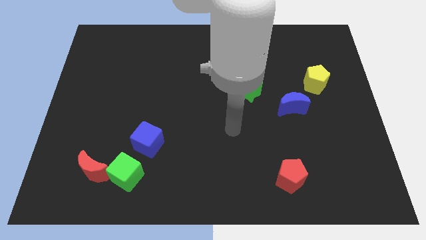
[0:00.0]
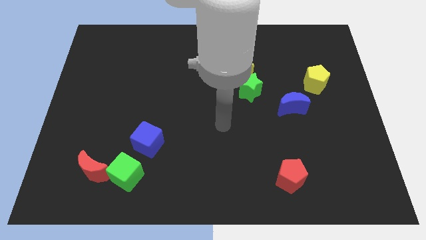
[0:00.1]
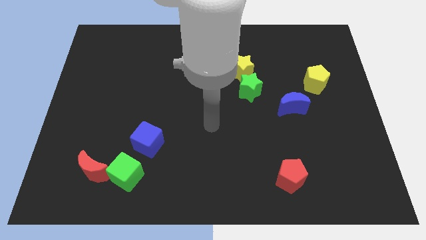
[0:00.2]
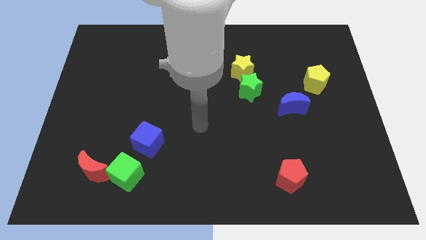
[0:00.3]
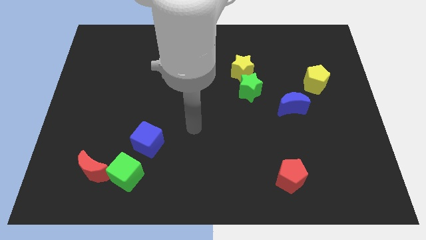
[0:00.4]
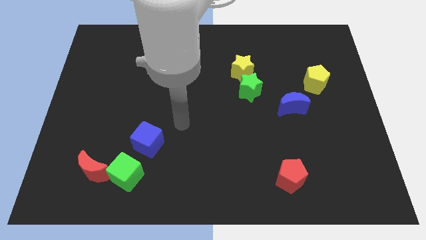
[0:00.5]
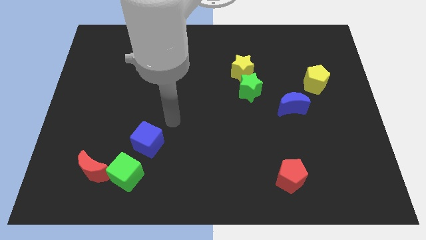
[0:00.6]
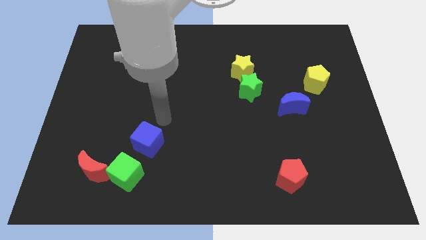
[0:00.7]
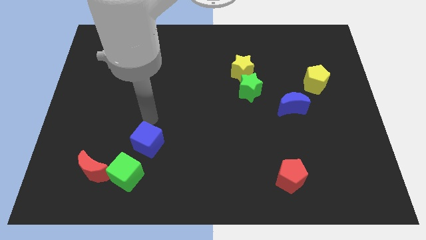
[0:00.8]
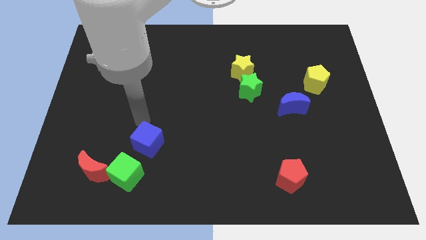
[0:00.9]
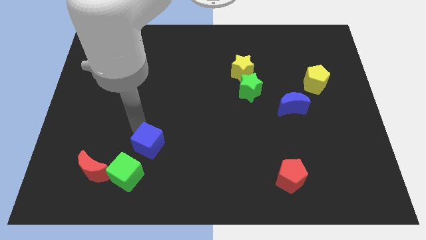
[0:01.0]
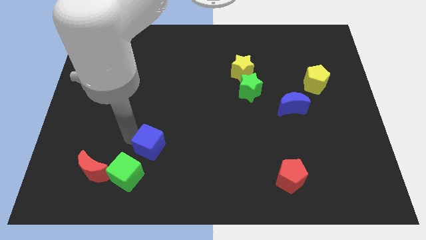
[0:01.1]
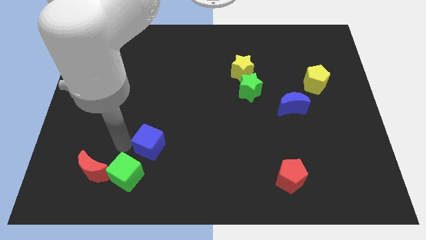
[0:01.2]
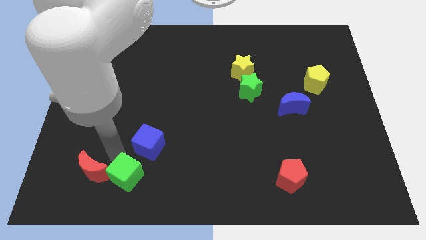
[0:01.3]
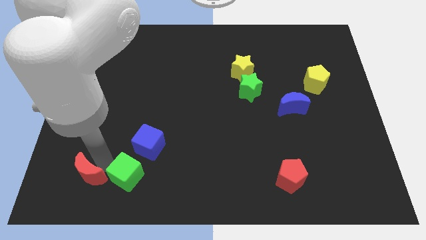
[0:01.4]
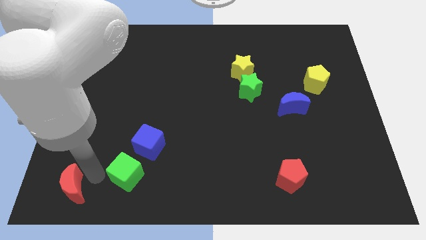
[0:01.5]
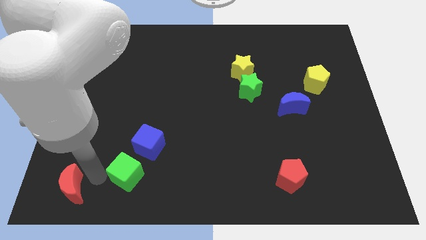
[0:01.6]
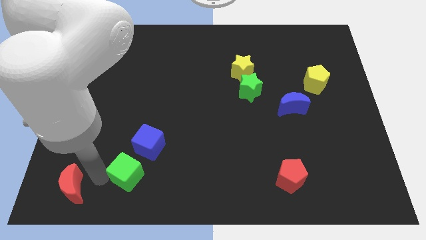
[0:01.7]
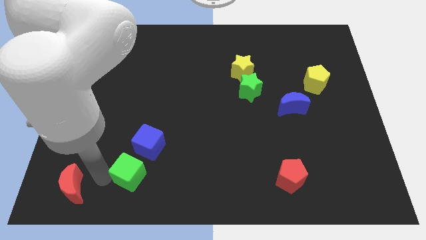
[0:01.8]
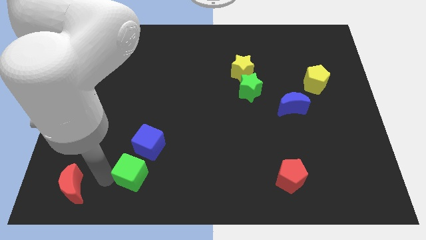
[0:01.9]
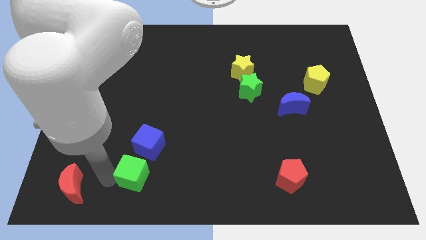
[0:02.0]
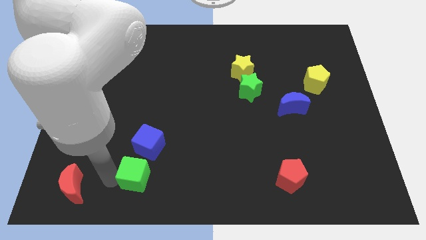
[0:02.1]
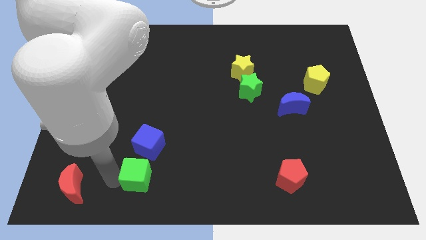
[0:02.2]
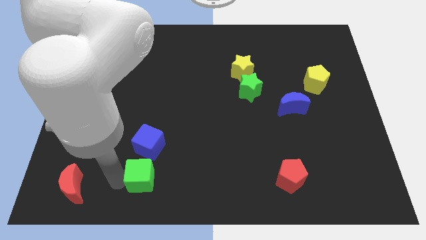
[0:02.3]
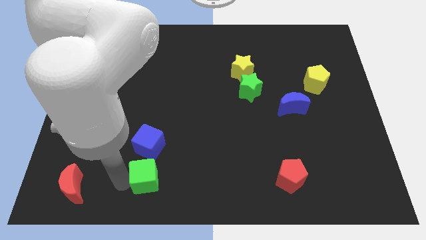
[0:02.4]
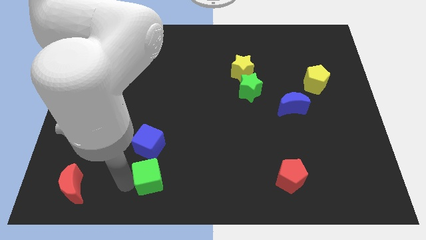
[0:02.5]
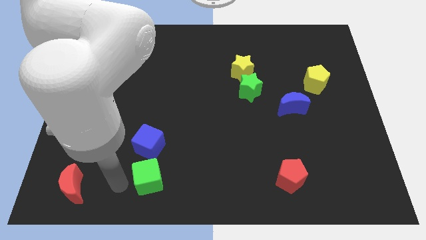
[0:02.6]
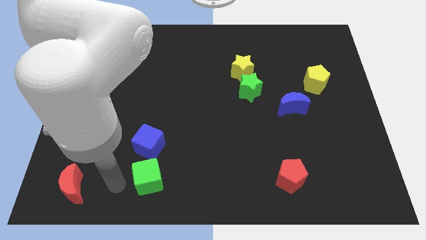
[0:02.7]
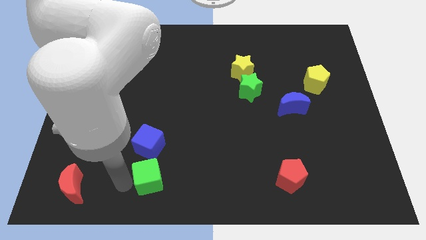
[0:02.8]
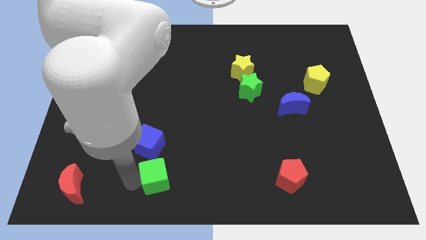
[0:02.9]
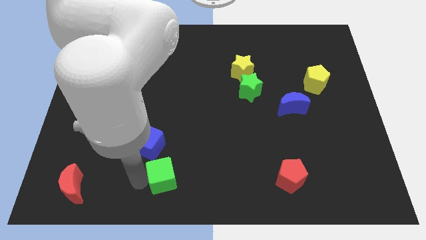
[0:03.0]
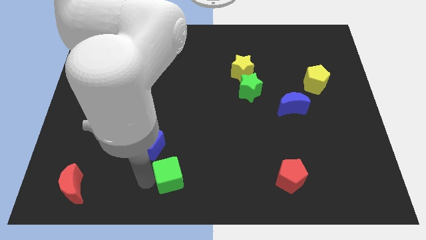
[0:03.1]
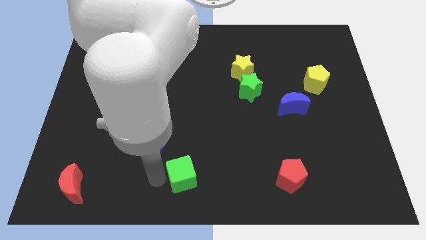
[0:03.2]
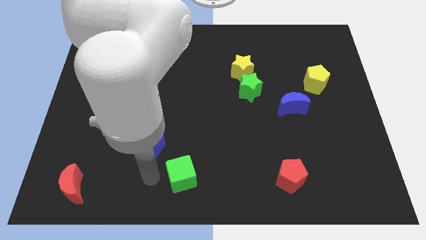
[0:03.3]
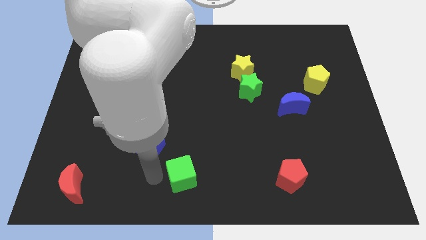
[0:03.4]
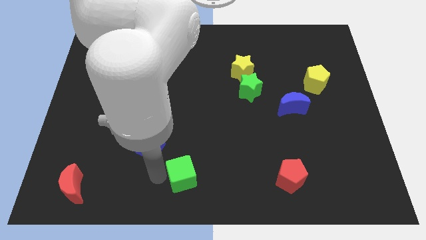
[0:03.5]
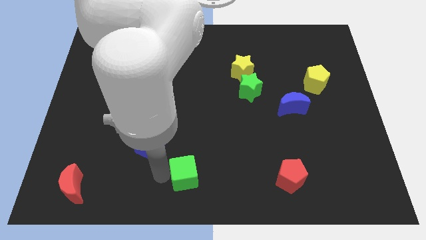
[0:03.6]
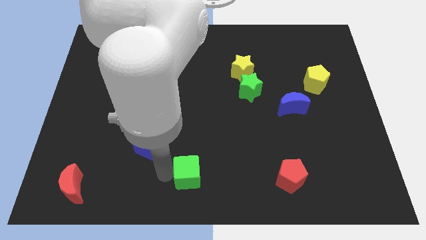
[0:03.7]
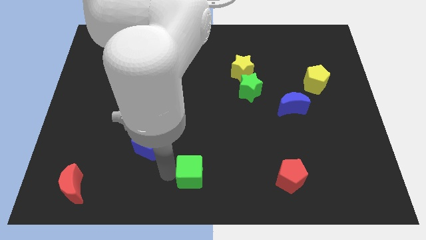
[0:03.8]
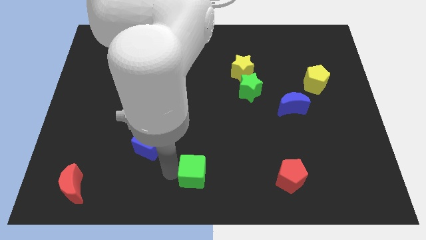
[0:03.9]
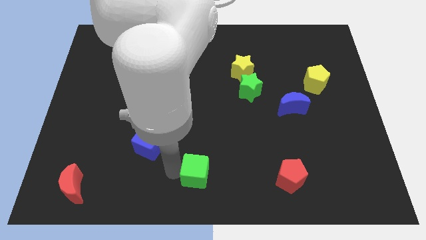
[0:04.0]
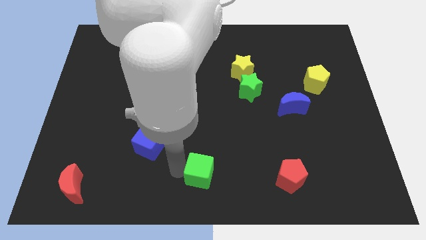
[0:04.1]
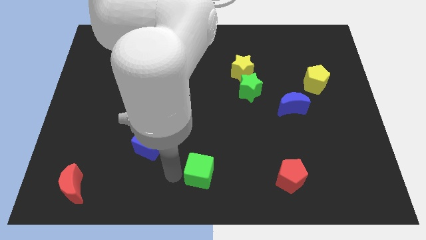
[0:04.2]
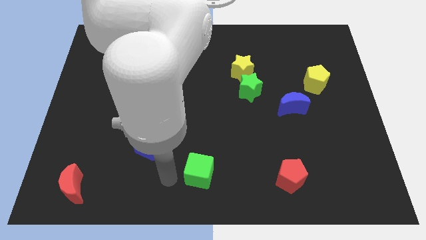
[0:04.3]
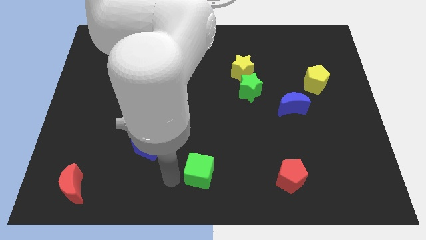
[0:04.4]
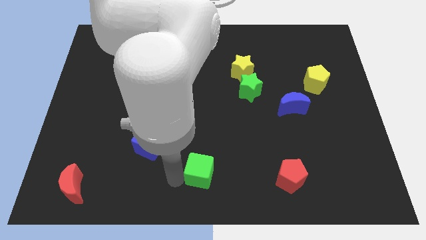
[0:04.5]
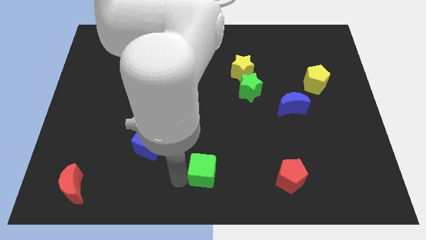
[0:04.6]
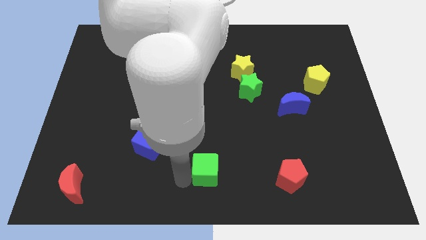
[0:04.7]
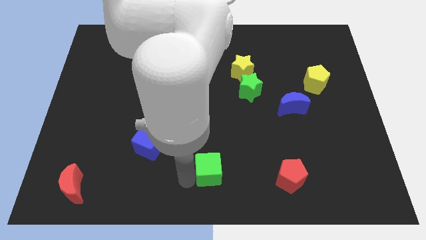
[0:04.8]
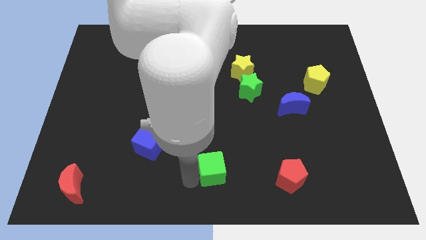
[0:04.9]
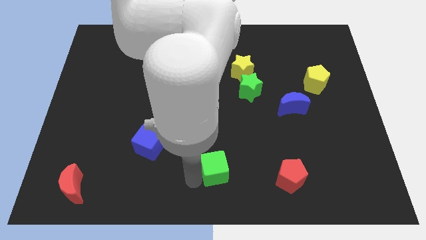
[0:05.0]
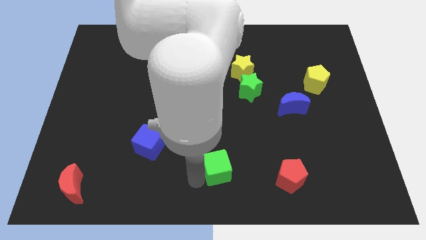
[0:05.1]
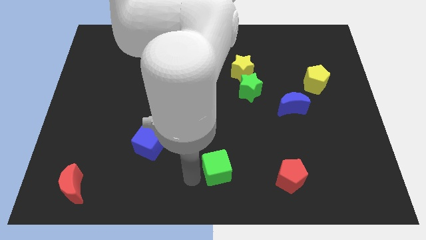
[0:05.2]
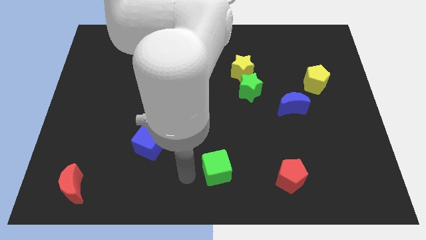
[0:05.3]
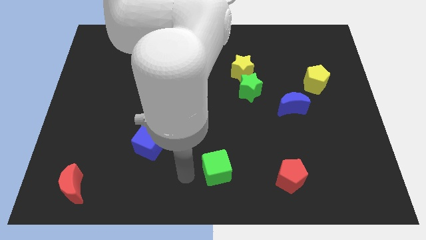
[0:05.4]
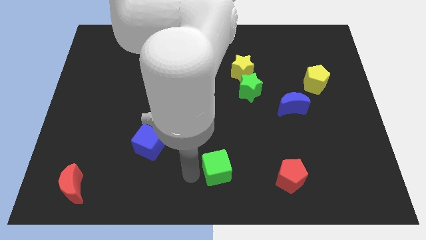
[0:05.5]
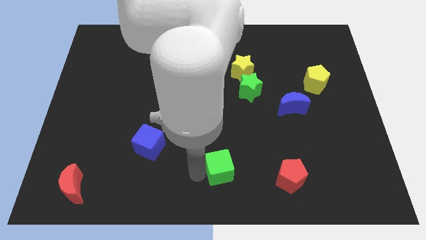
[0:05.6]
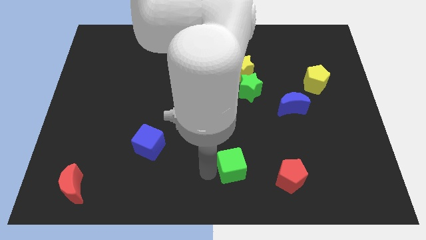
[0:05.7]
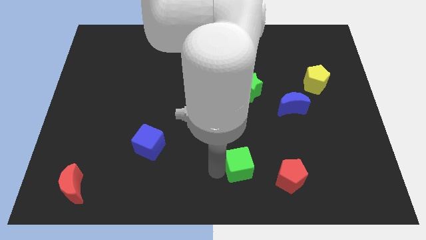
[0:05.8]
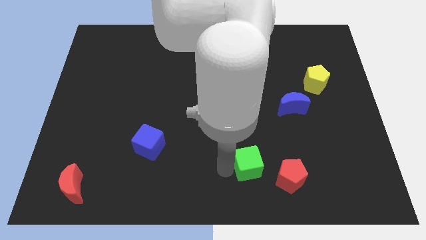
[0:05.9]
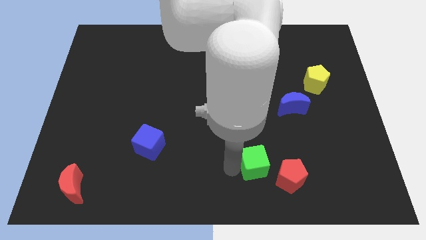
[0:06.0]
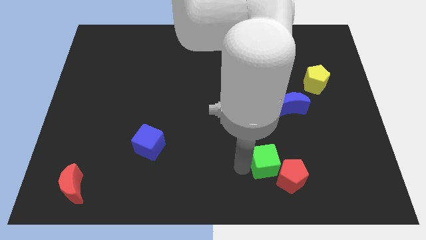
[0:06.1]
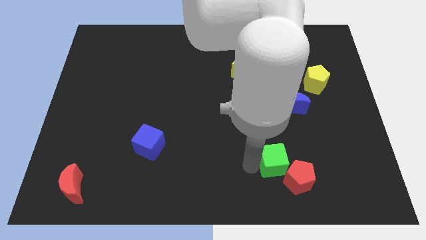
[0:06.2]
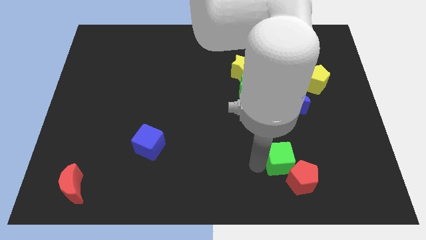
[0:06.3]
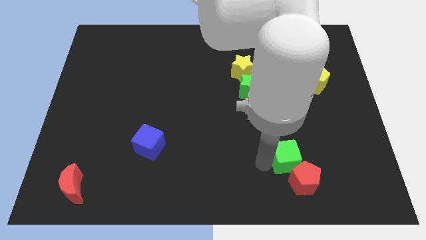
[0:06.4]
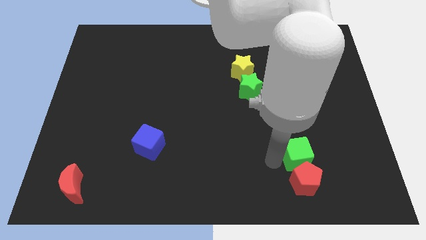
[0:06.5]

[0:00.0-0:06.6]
move the green cube diagonally up and to the right of the red pentagon
